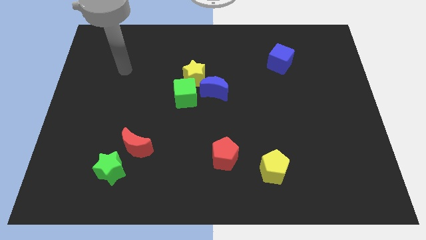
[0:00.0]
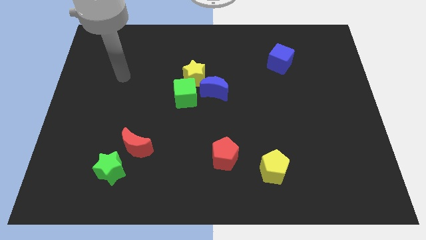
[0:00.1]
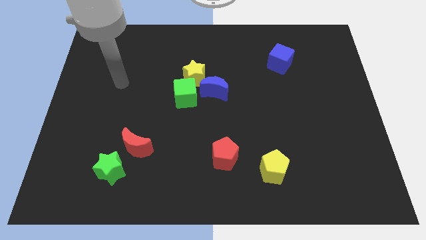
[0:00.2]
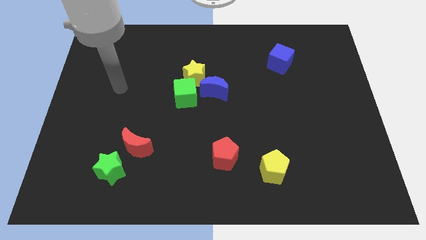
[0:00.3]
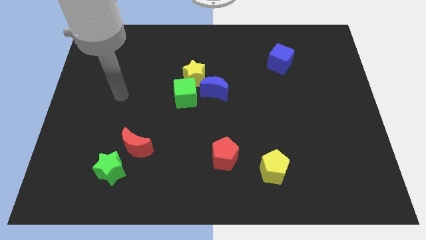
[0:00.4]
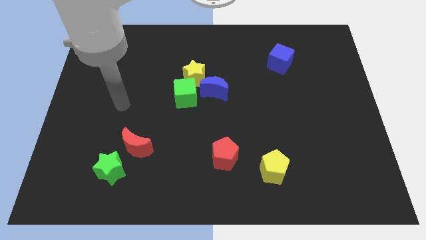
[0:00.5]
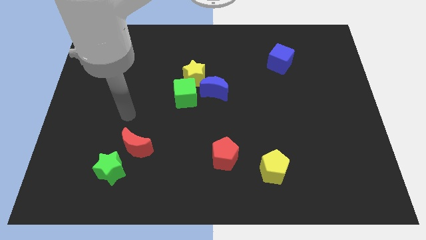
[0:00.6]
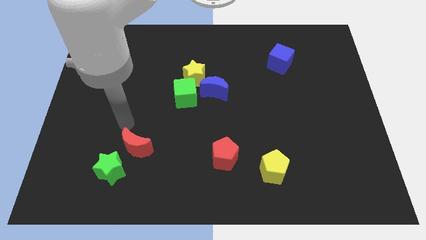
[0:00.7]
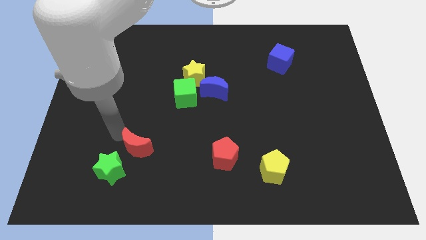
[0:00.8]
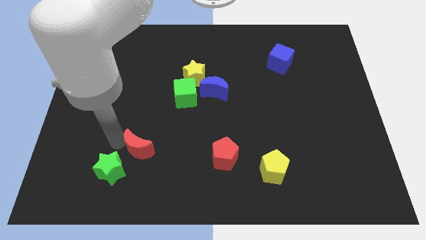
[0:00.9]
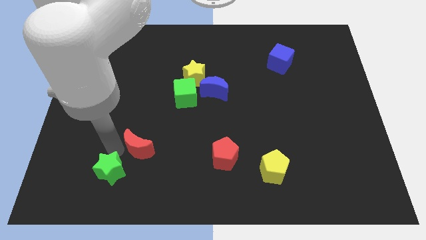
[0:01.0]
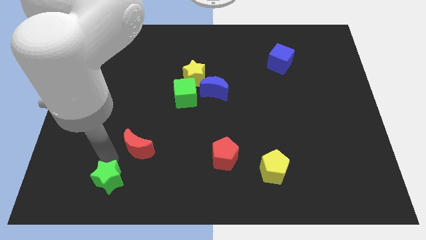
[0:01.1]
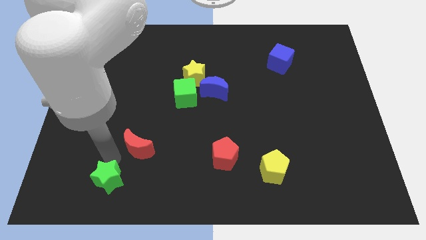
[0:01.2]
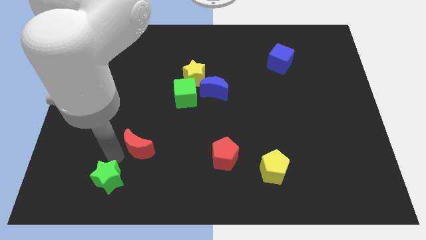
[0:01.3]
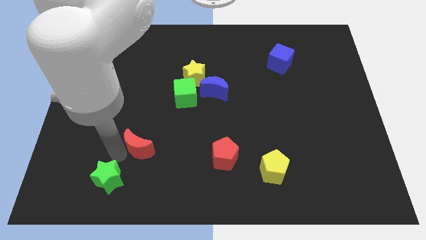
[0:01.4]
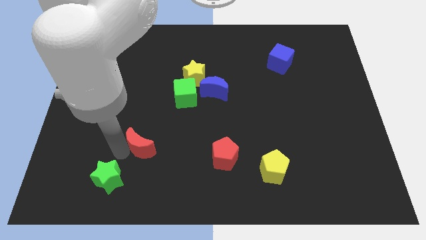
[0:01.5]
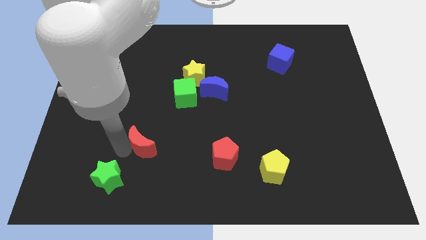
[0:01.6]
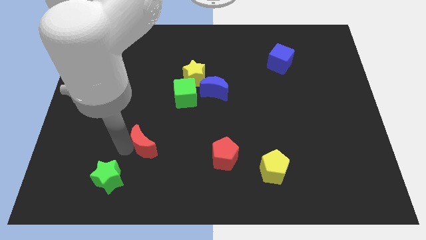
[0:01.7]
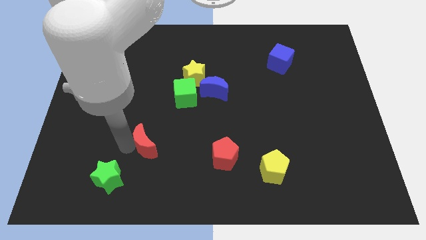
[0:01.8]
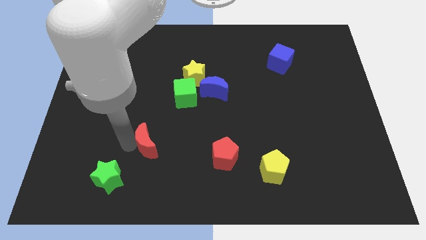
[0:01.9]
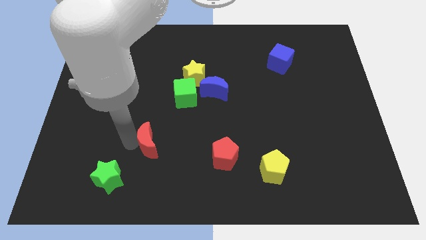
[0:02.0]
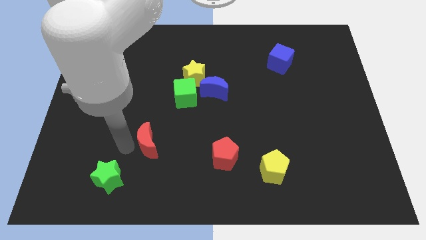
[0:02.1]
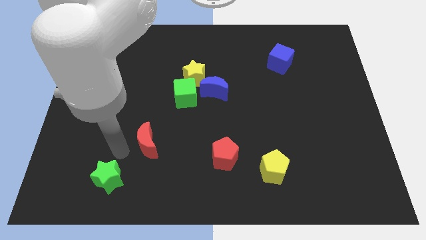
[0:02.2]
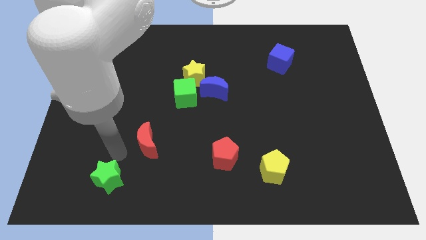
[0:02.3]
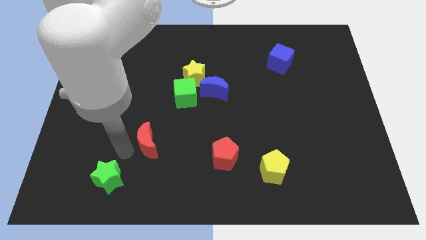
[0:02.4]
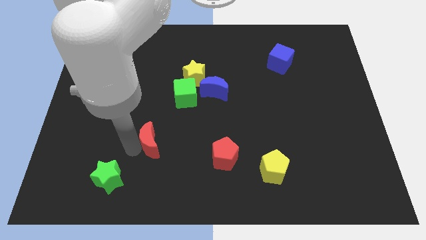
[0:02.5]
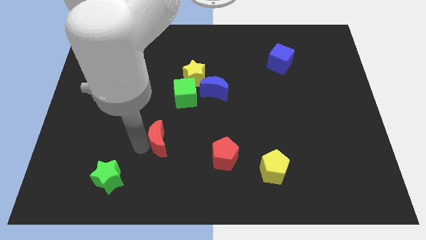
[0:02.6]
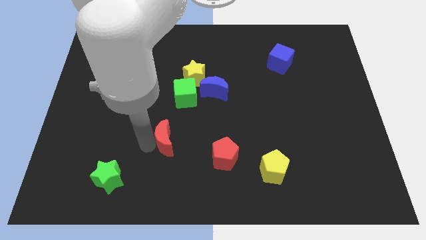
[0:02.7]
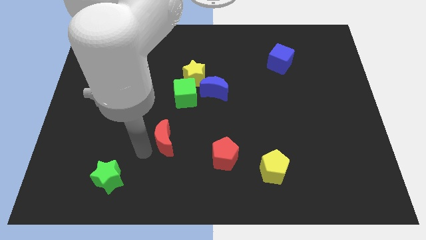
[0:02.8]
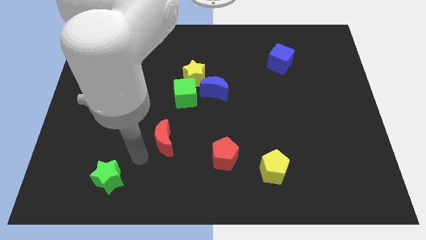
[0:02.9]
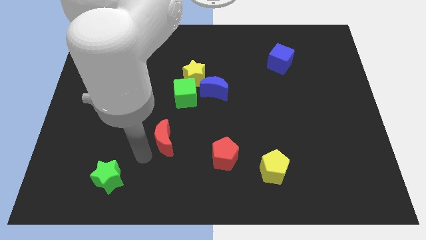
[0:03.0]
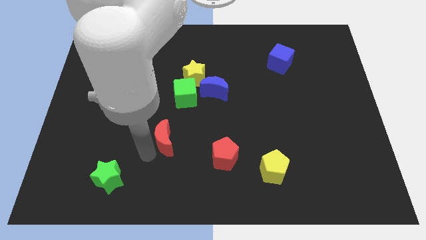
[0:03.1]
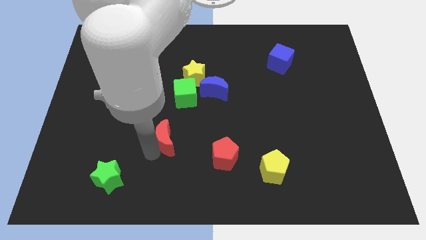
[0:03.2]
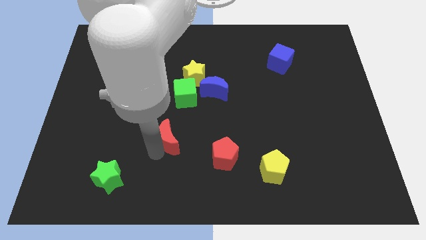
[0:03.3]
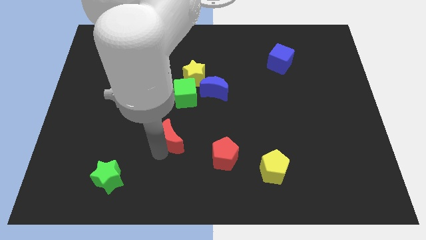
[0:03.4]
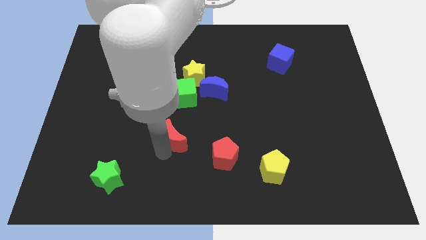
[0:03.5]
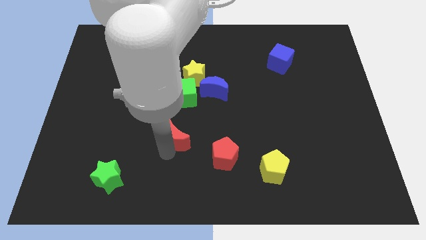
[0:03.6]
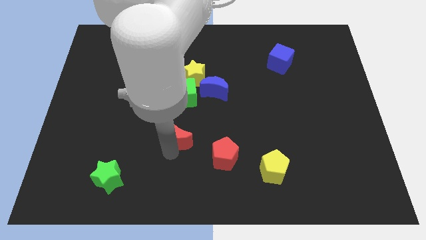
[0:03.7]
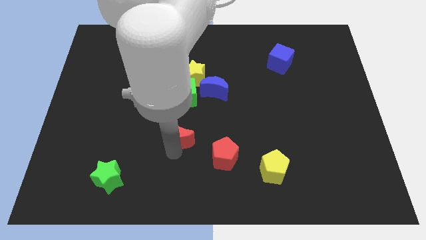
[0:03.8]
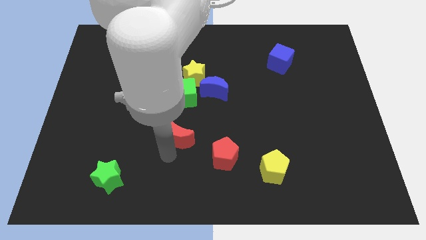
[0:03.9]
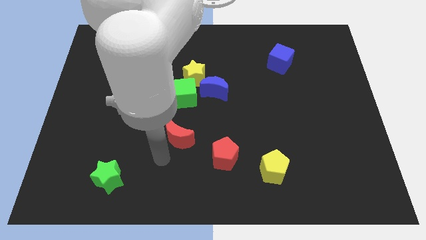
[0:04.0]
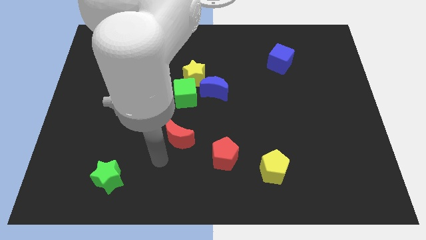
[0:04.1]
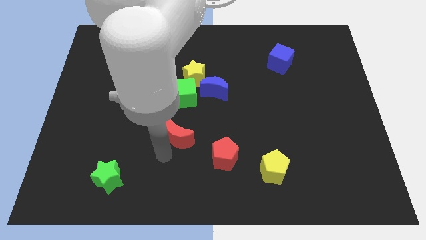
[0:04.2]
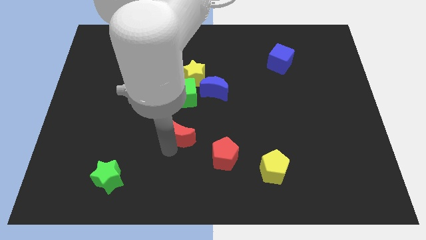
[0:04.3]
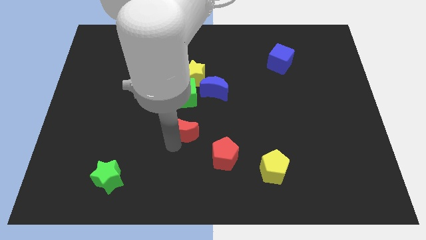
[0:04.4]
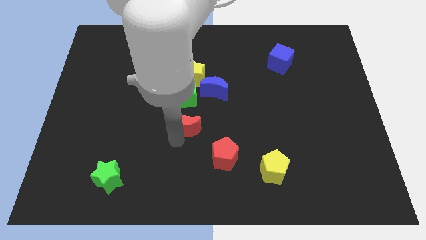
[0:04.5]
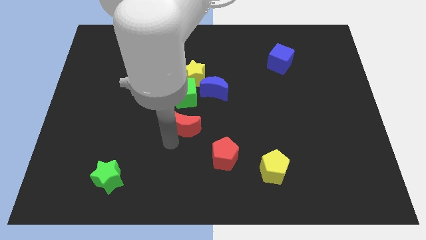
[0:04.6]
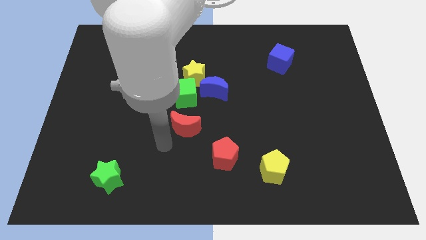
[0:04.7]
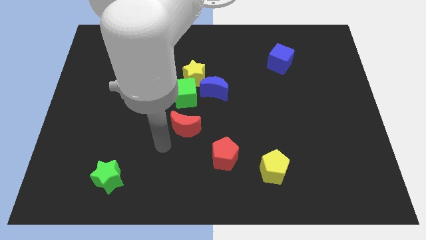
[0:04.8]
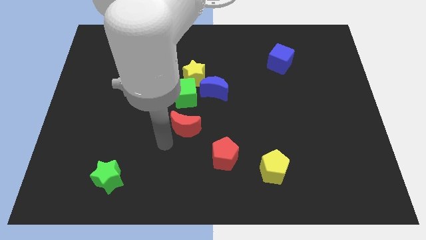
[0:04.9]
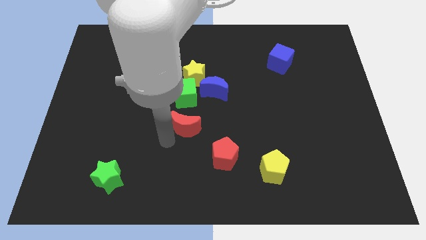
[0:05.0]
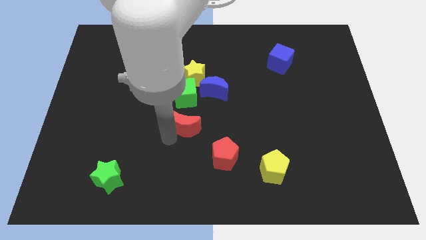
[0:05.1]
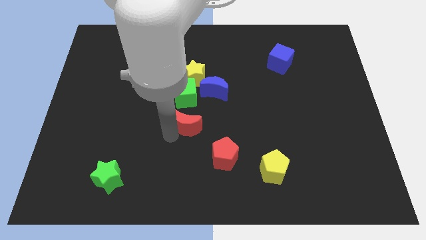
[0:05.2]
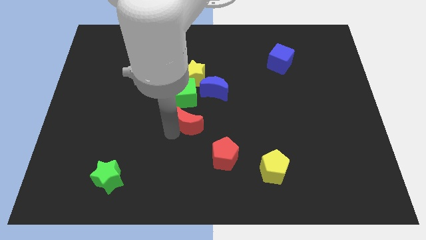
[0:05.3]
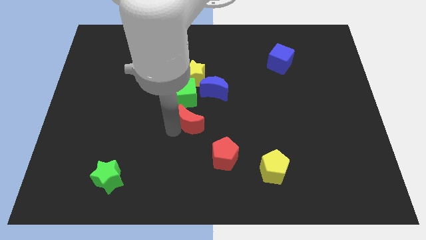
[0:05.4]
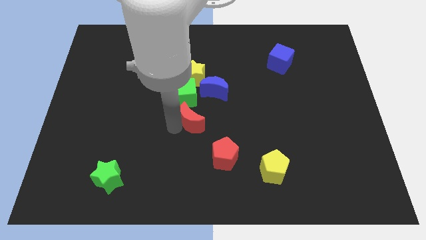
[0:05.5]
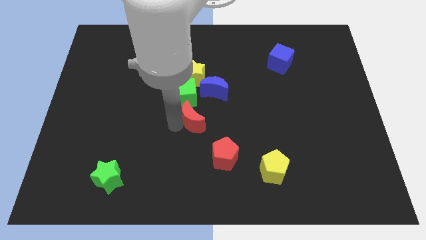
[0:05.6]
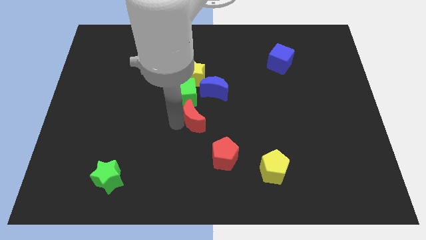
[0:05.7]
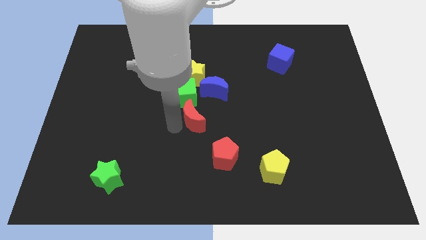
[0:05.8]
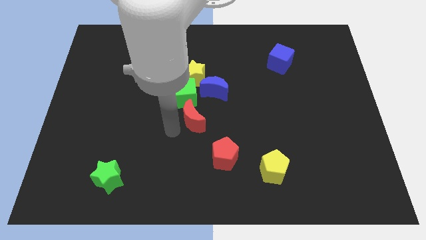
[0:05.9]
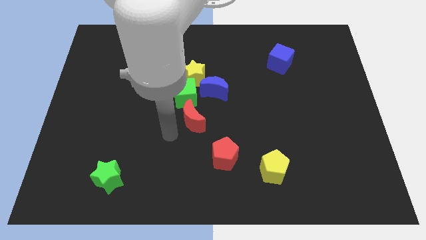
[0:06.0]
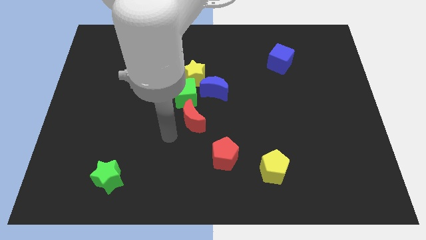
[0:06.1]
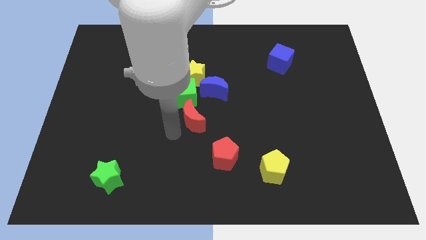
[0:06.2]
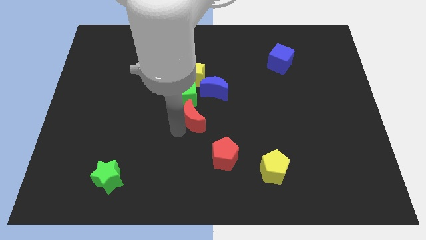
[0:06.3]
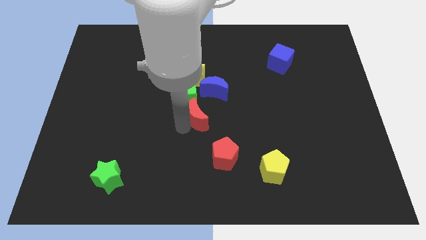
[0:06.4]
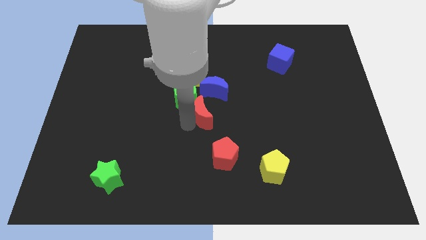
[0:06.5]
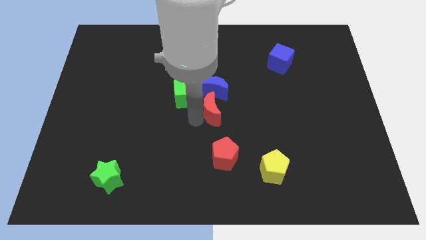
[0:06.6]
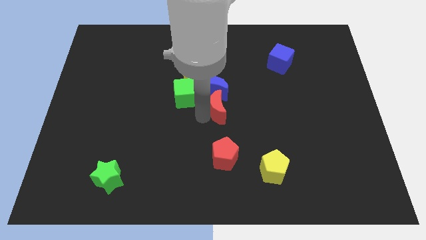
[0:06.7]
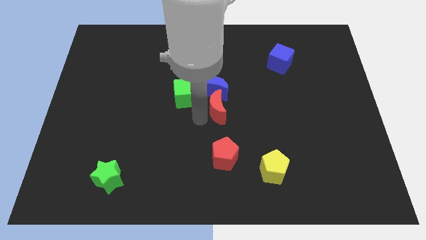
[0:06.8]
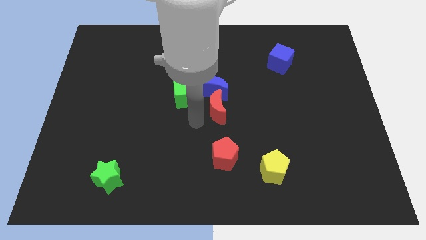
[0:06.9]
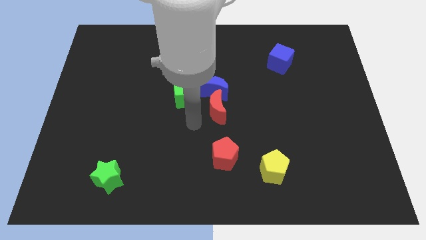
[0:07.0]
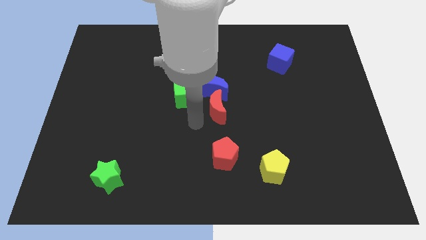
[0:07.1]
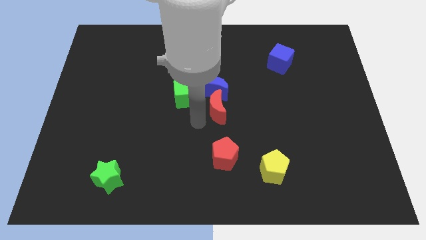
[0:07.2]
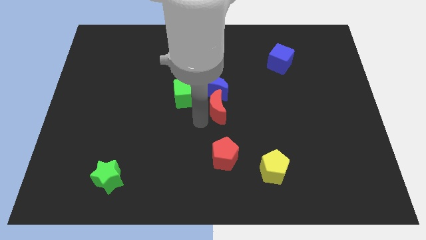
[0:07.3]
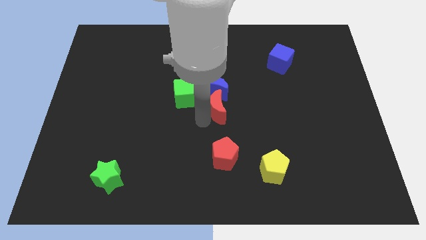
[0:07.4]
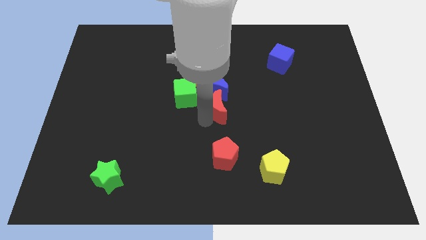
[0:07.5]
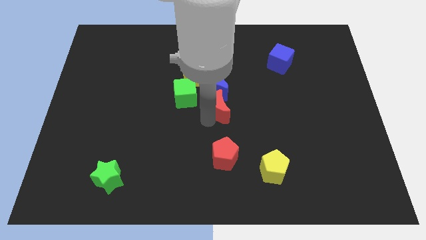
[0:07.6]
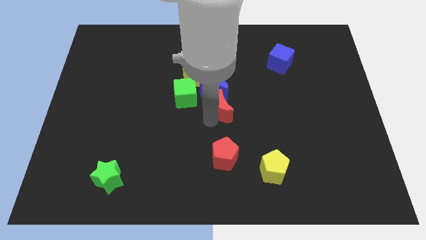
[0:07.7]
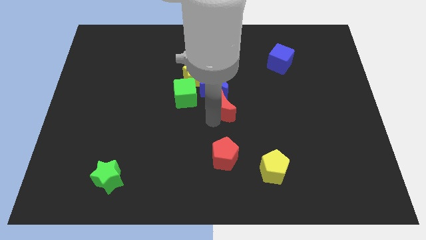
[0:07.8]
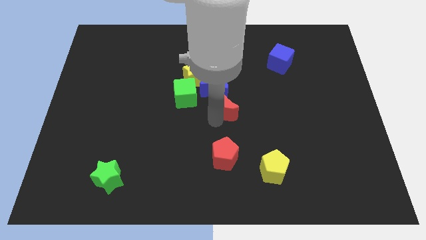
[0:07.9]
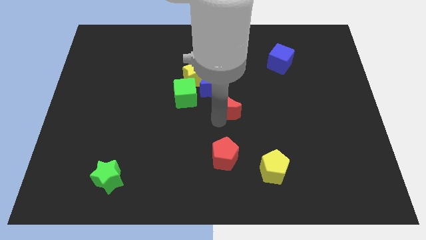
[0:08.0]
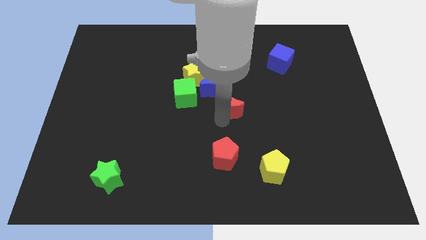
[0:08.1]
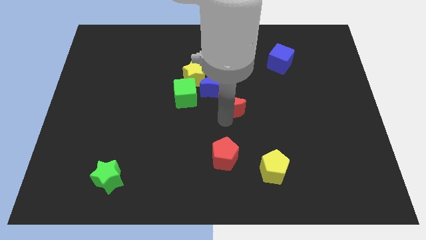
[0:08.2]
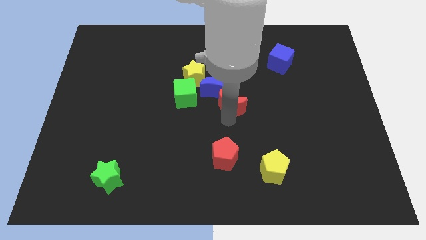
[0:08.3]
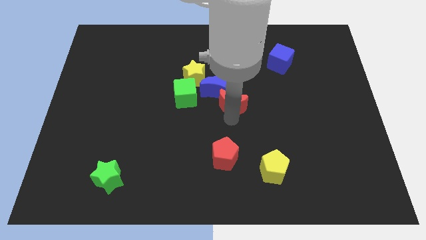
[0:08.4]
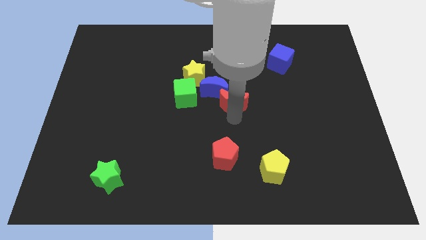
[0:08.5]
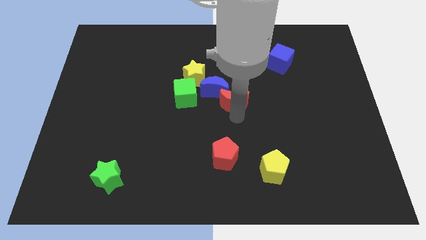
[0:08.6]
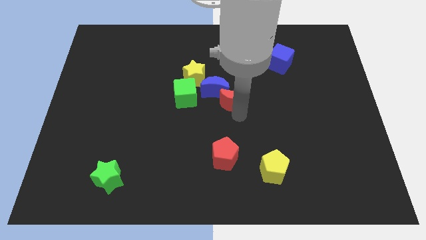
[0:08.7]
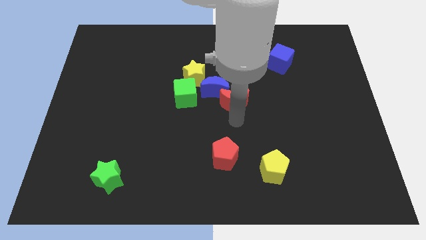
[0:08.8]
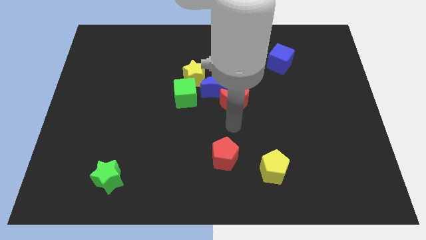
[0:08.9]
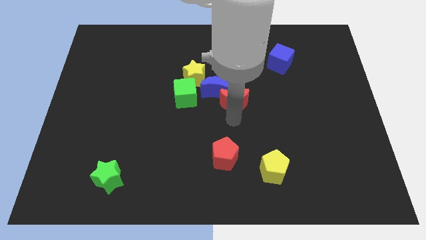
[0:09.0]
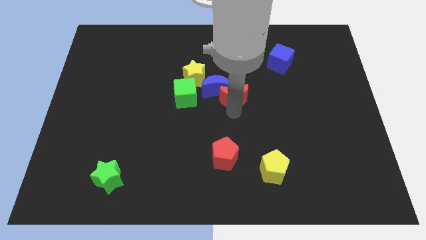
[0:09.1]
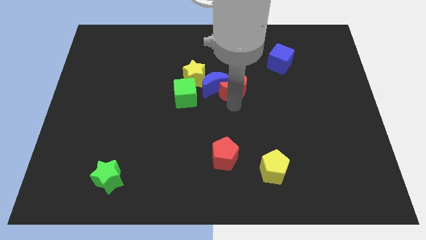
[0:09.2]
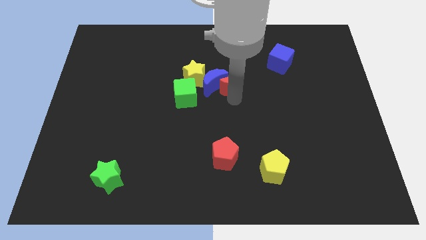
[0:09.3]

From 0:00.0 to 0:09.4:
push the red moon diagonally up and to the right of the blue moon
